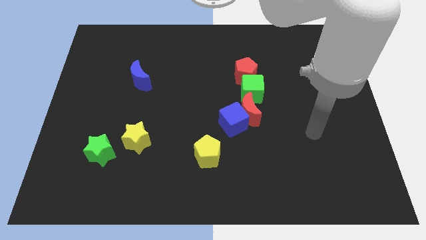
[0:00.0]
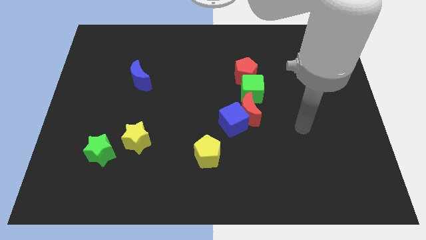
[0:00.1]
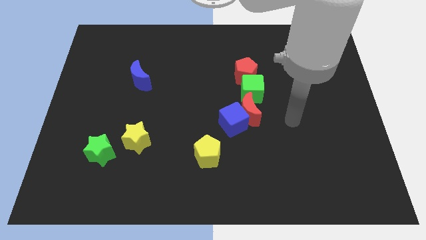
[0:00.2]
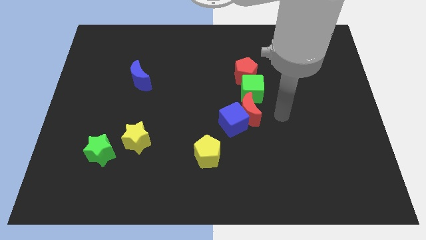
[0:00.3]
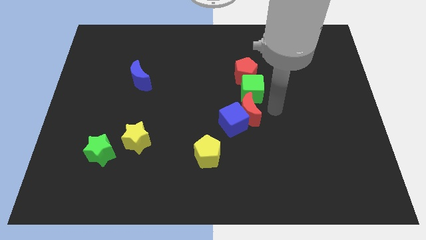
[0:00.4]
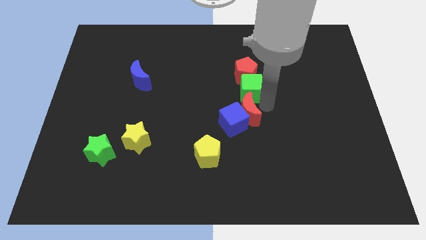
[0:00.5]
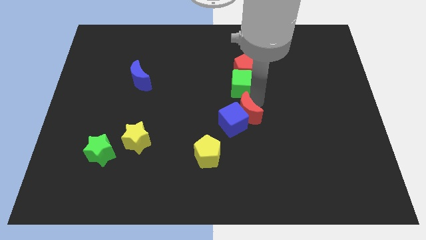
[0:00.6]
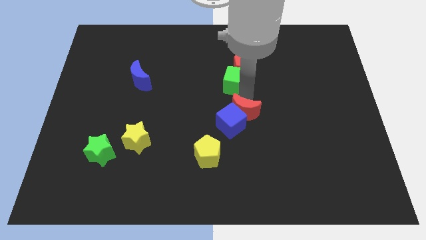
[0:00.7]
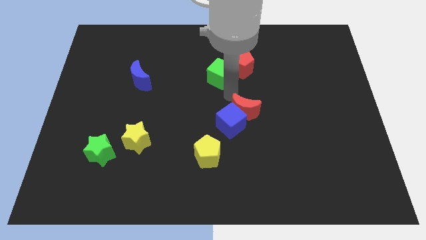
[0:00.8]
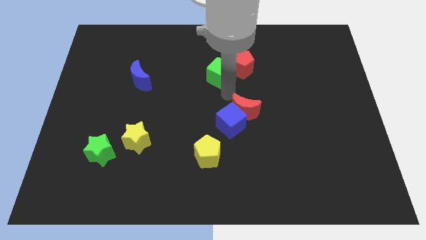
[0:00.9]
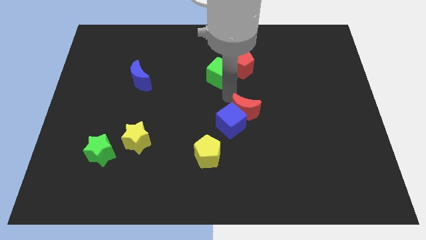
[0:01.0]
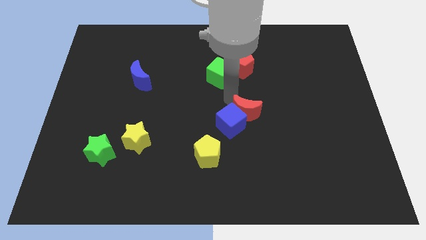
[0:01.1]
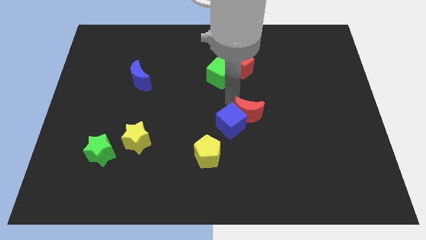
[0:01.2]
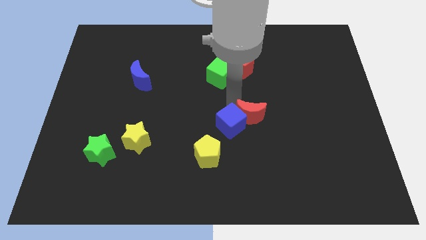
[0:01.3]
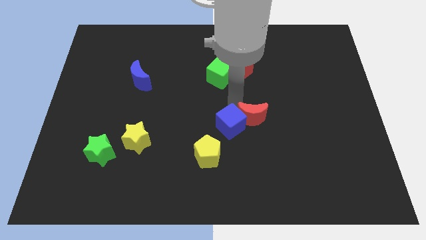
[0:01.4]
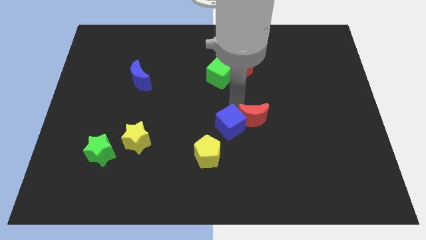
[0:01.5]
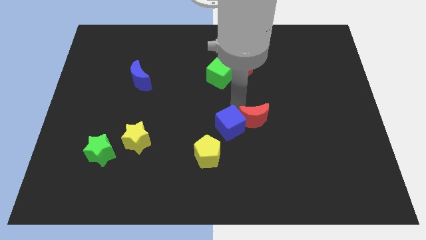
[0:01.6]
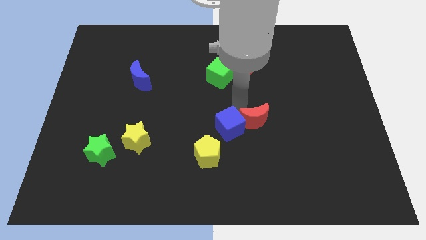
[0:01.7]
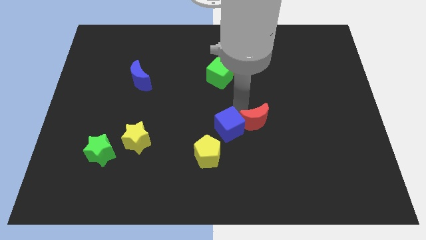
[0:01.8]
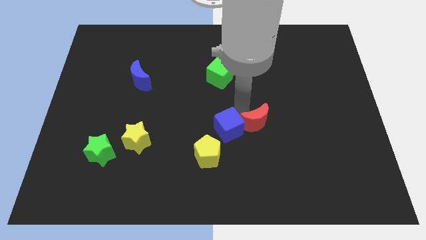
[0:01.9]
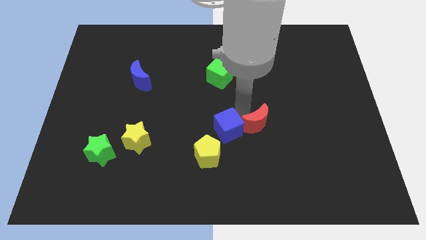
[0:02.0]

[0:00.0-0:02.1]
move the red moon away from the blue cube and green cube

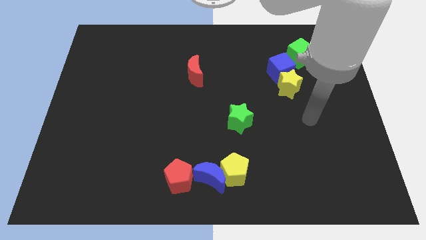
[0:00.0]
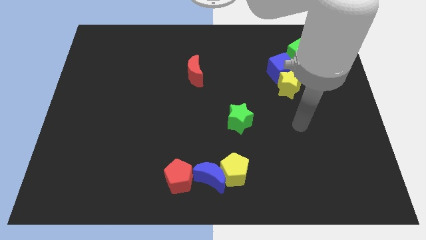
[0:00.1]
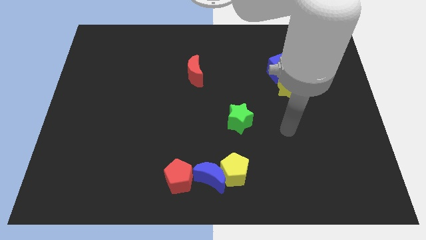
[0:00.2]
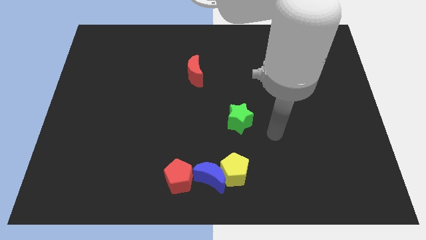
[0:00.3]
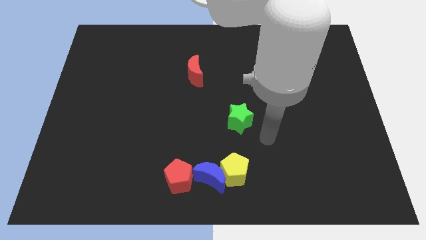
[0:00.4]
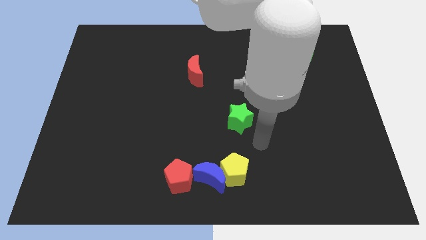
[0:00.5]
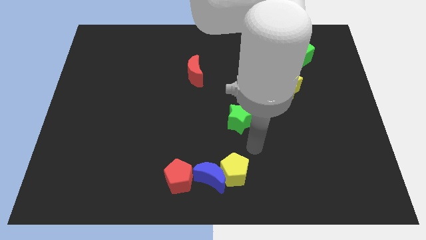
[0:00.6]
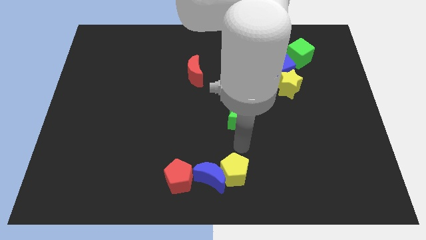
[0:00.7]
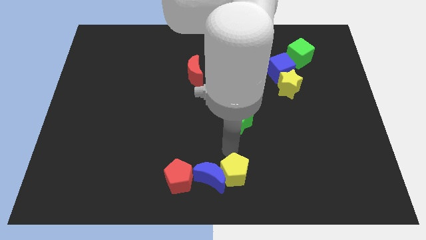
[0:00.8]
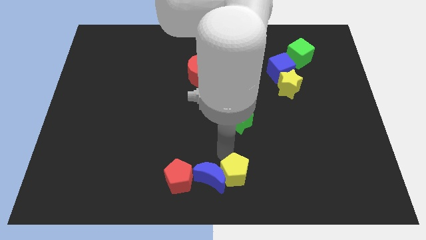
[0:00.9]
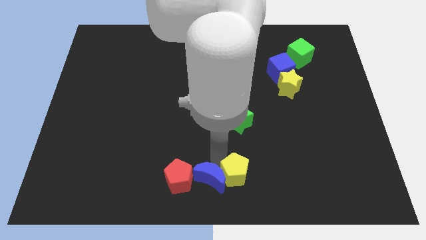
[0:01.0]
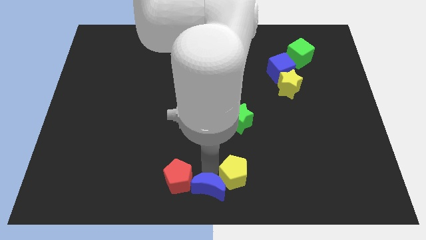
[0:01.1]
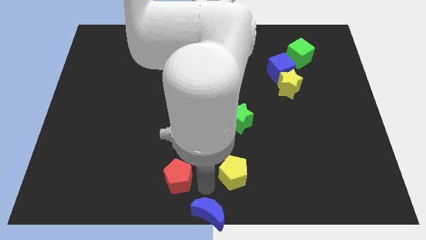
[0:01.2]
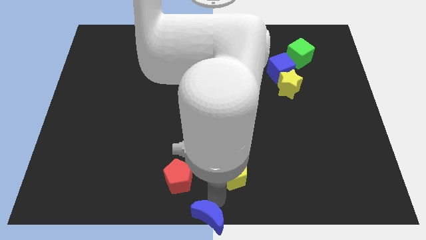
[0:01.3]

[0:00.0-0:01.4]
move the yellow pentagon away from the blue moon

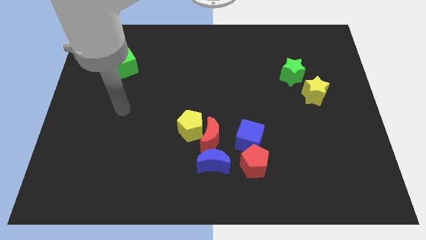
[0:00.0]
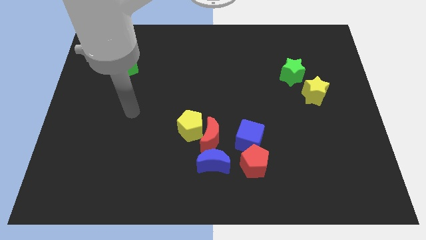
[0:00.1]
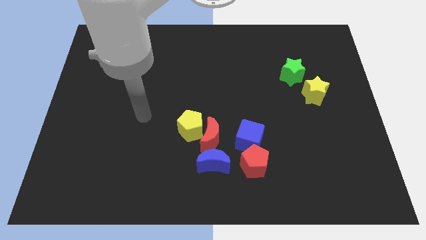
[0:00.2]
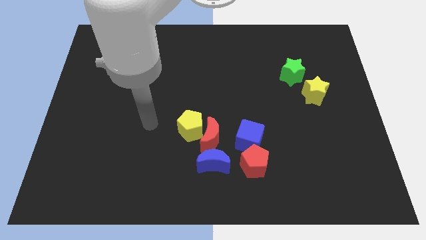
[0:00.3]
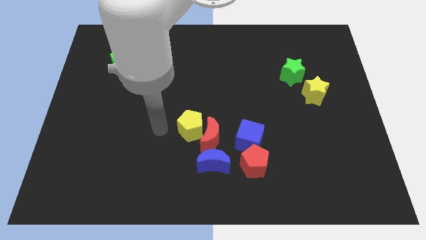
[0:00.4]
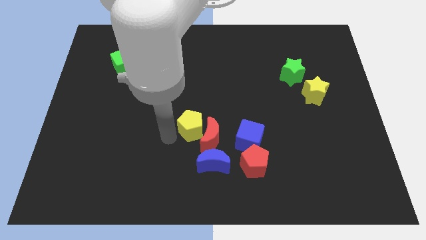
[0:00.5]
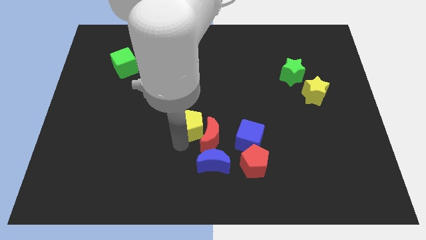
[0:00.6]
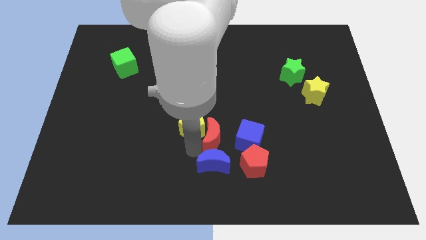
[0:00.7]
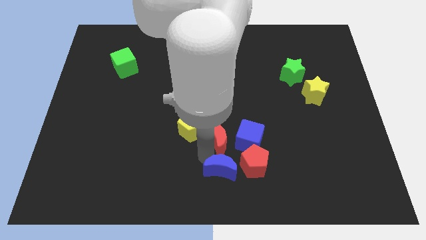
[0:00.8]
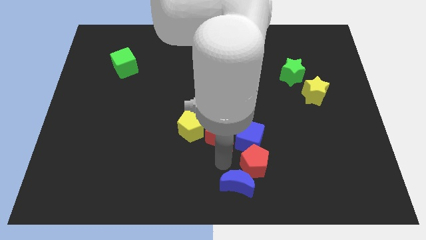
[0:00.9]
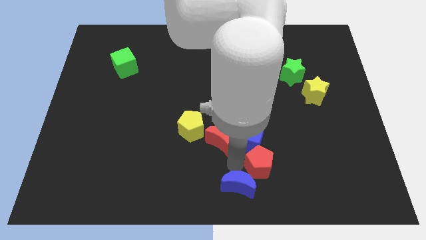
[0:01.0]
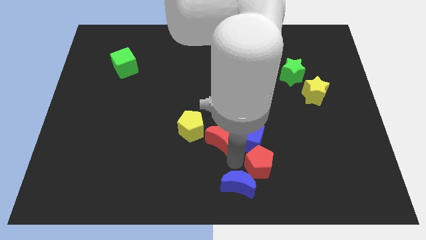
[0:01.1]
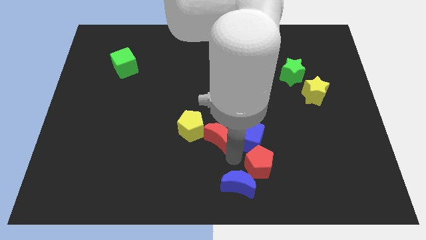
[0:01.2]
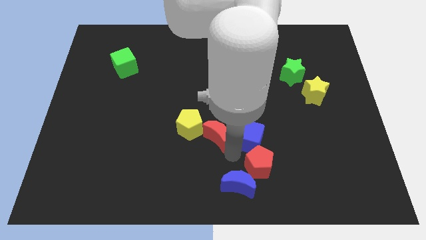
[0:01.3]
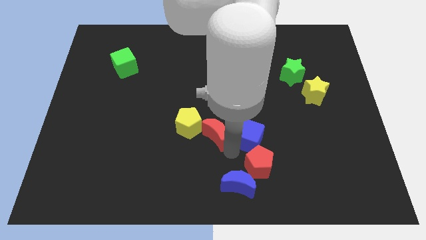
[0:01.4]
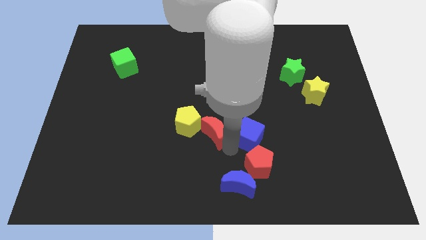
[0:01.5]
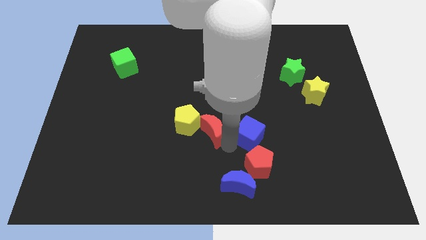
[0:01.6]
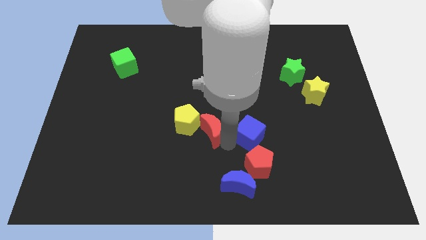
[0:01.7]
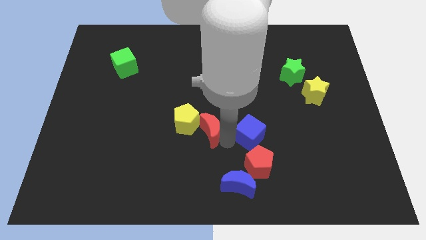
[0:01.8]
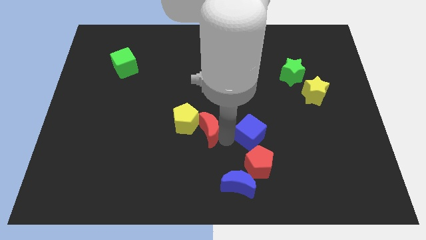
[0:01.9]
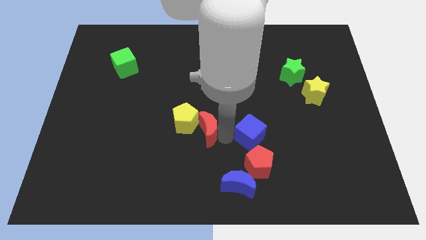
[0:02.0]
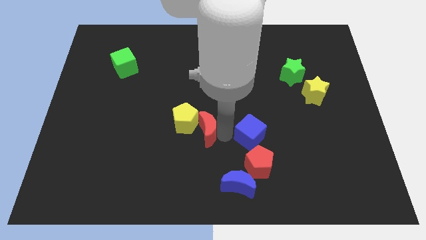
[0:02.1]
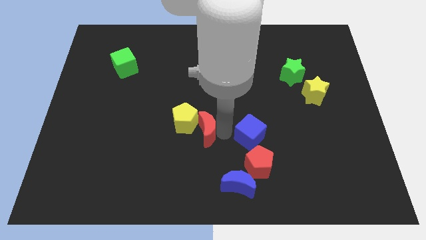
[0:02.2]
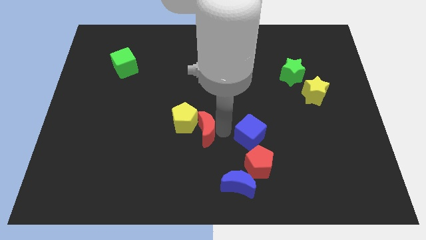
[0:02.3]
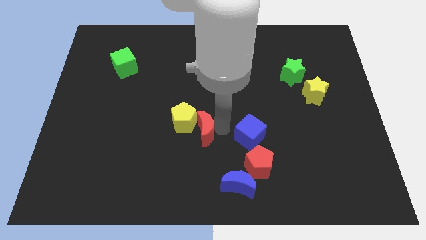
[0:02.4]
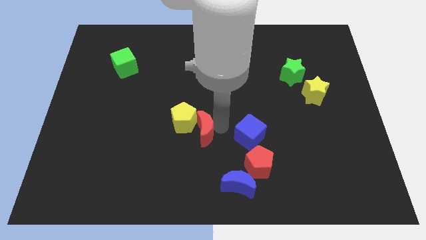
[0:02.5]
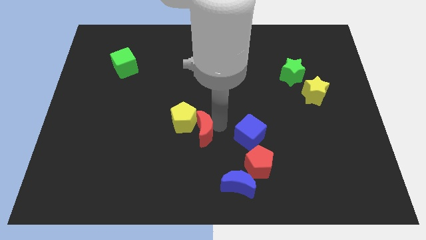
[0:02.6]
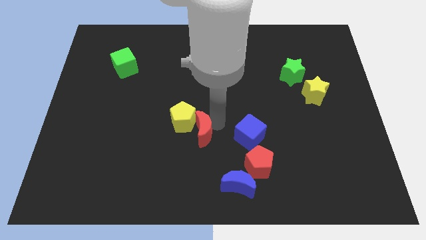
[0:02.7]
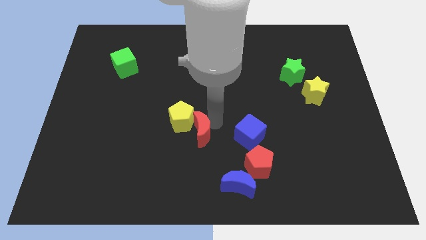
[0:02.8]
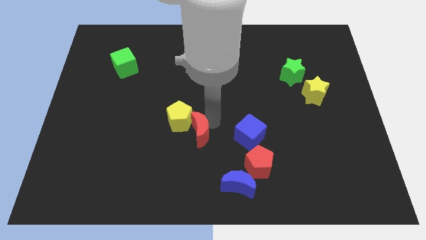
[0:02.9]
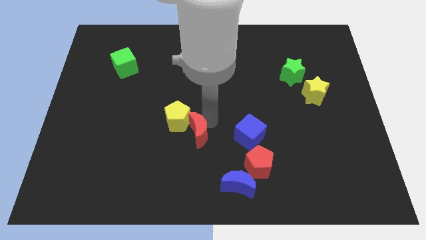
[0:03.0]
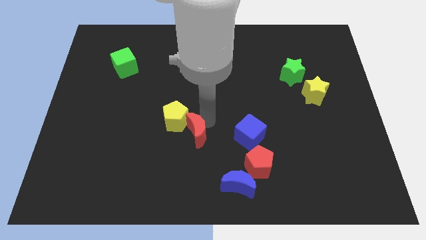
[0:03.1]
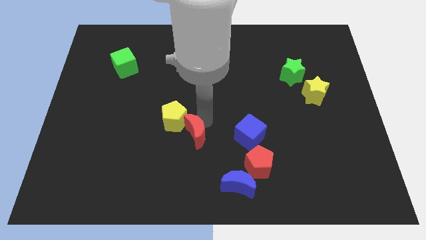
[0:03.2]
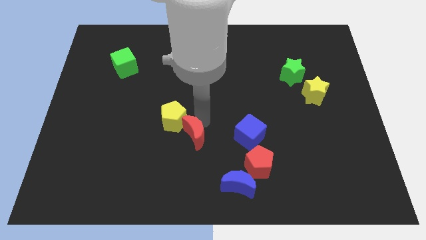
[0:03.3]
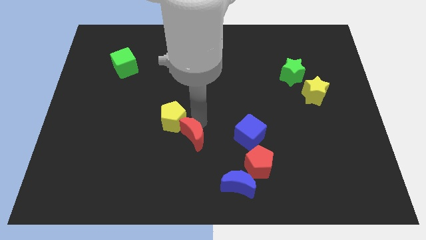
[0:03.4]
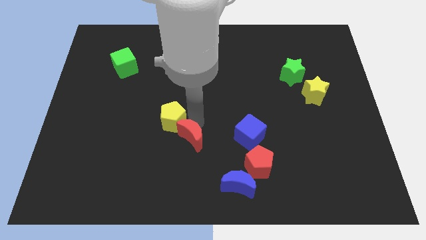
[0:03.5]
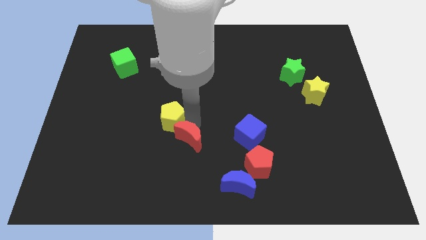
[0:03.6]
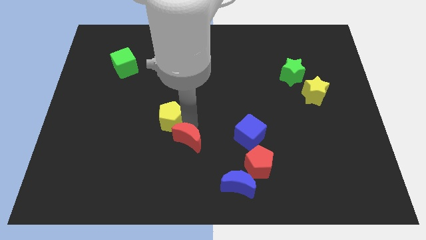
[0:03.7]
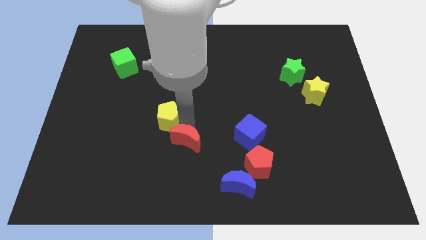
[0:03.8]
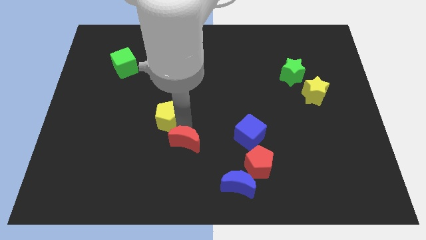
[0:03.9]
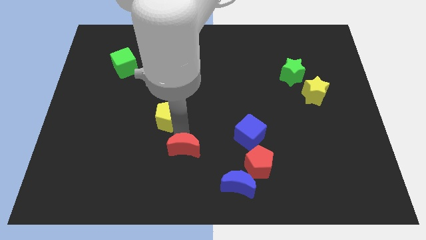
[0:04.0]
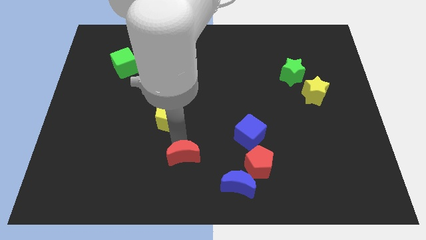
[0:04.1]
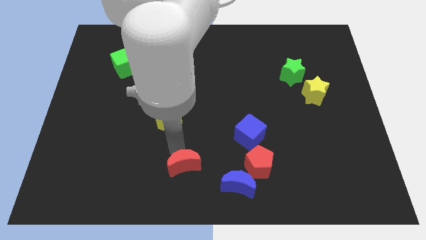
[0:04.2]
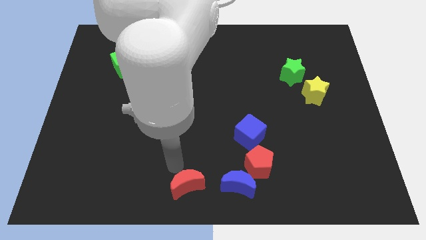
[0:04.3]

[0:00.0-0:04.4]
pull the red moon apart from the clump

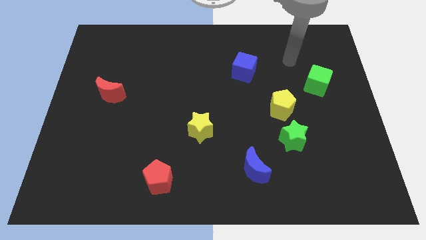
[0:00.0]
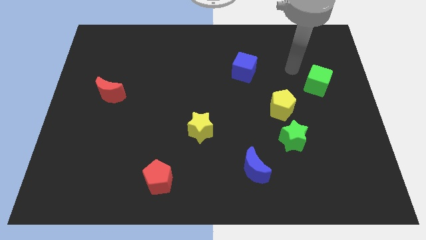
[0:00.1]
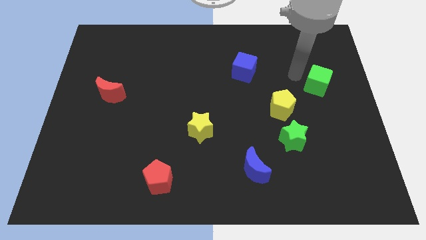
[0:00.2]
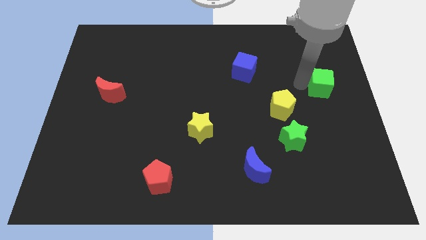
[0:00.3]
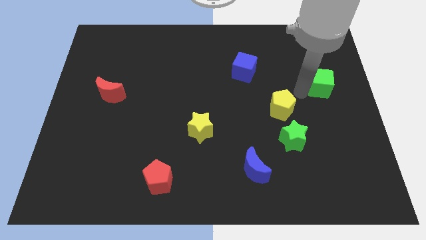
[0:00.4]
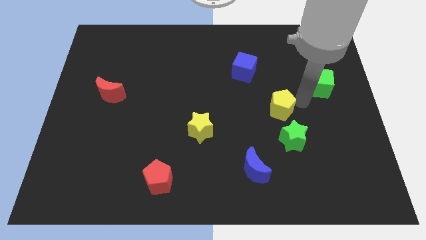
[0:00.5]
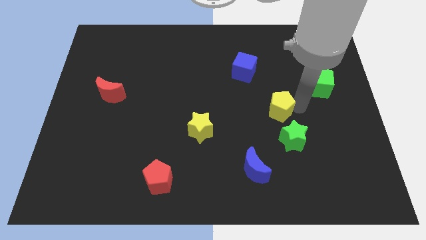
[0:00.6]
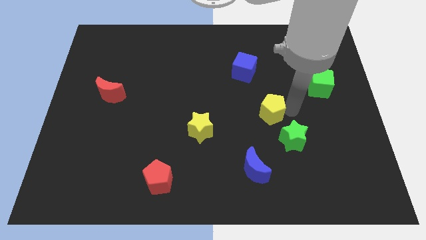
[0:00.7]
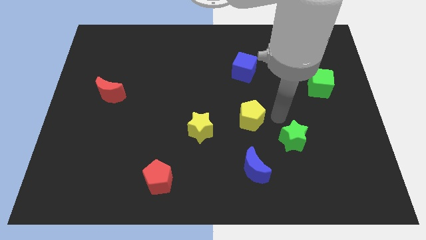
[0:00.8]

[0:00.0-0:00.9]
move the green star away from the yellow pentagon

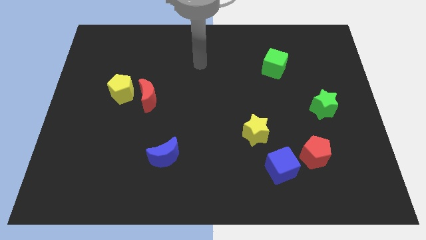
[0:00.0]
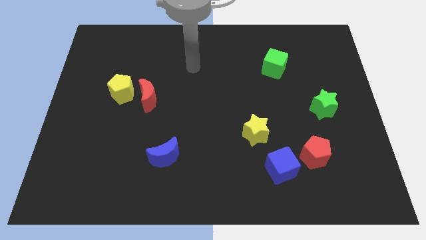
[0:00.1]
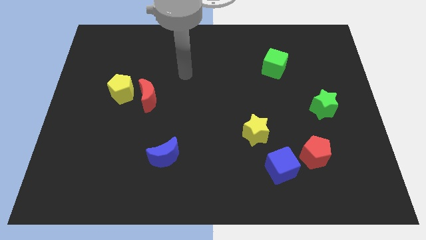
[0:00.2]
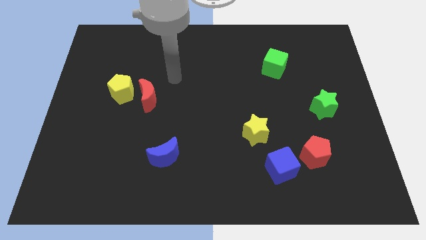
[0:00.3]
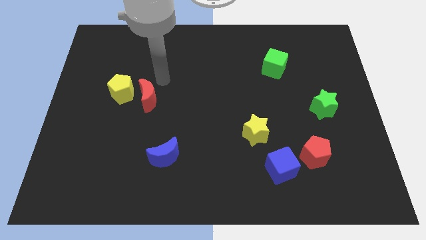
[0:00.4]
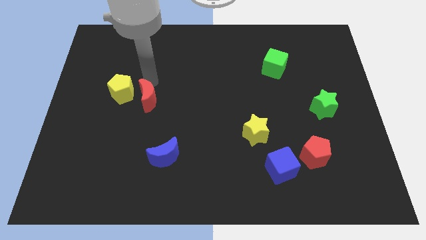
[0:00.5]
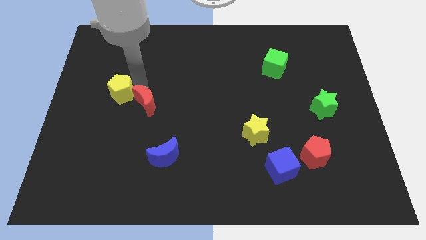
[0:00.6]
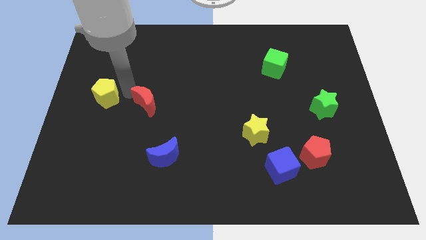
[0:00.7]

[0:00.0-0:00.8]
move the red moon away from the yellow pentagon
